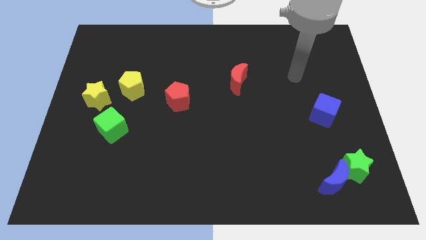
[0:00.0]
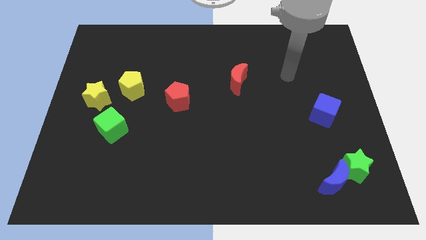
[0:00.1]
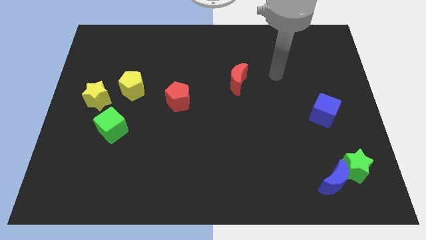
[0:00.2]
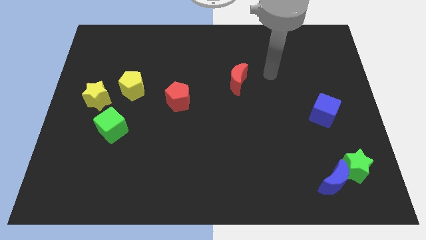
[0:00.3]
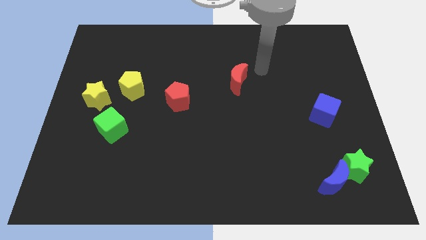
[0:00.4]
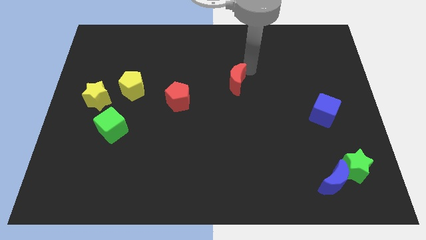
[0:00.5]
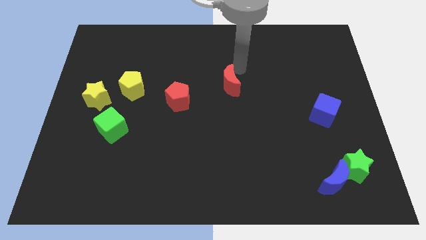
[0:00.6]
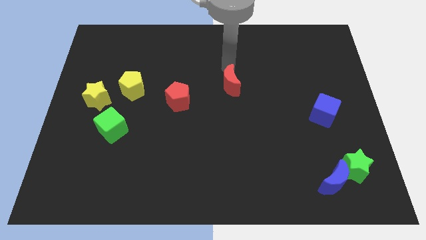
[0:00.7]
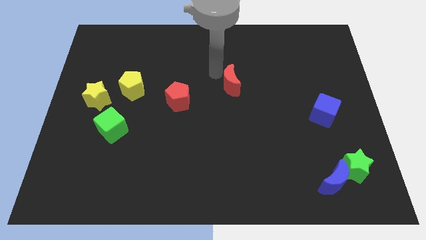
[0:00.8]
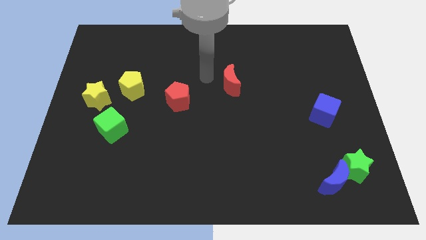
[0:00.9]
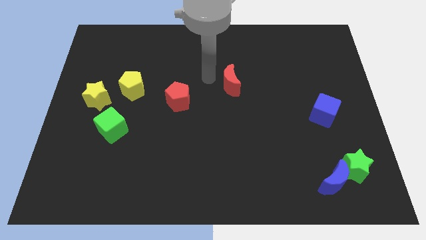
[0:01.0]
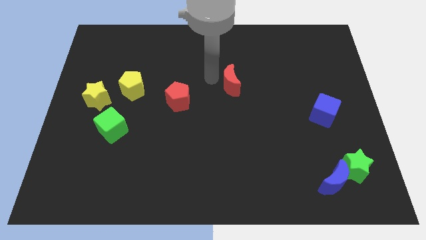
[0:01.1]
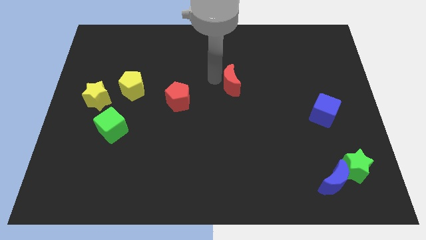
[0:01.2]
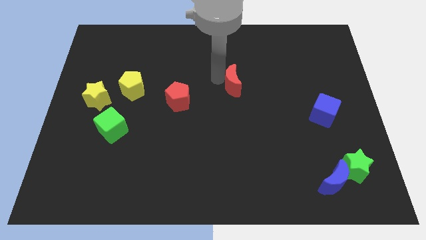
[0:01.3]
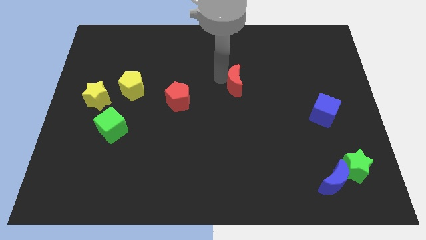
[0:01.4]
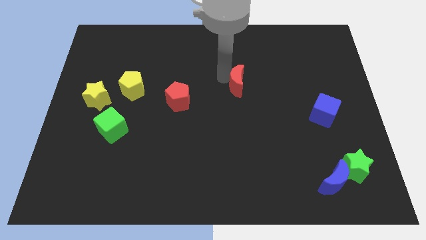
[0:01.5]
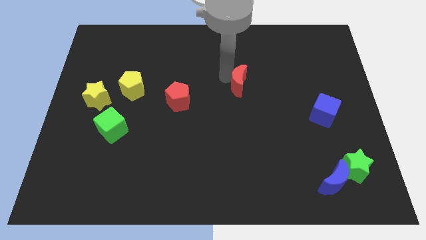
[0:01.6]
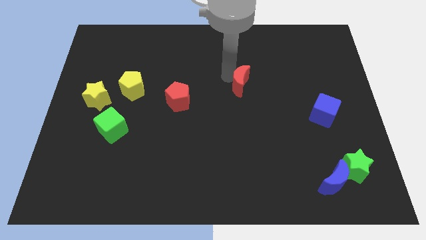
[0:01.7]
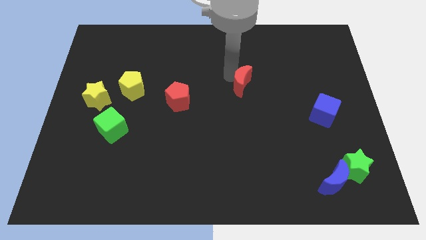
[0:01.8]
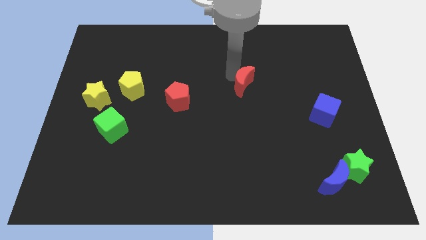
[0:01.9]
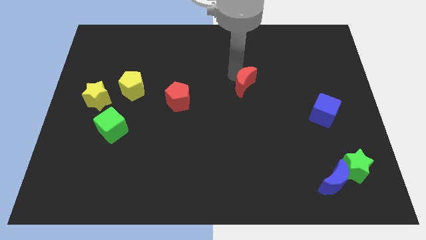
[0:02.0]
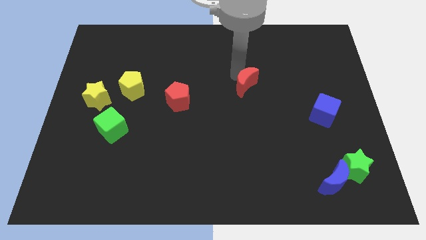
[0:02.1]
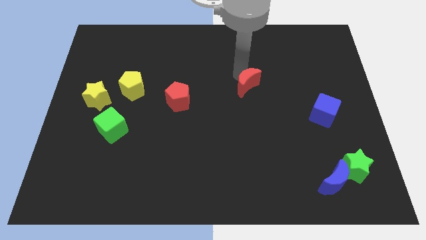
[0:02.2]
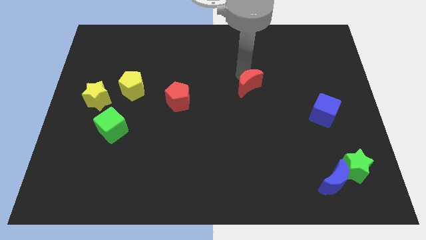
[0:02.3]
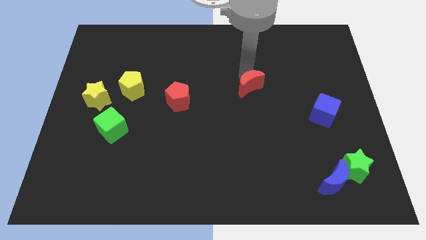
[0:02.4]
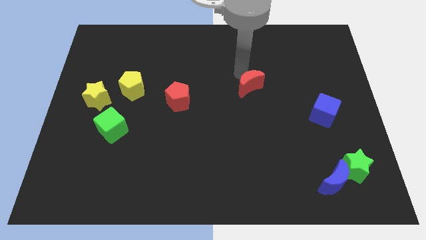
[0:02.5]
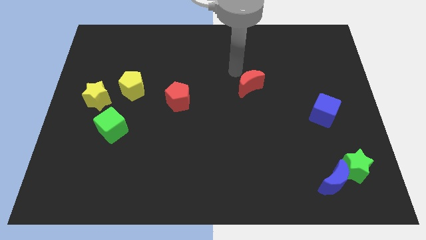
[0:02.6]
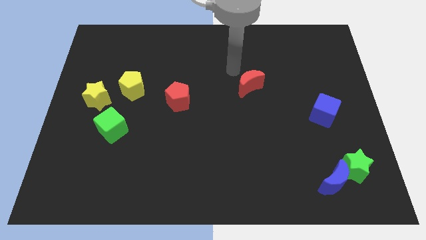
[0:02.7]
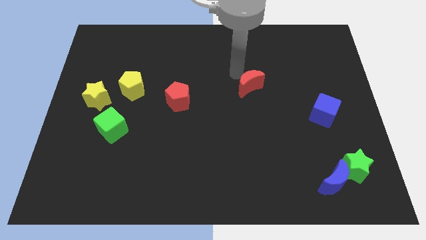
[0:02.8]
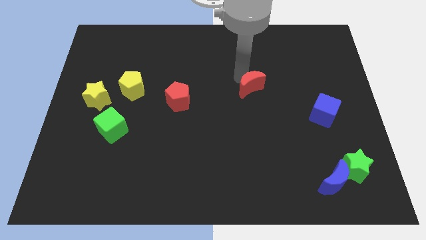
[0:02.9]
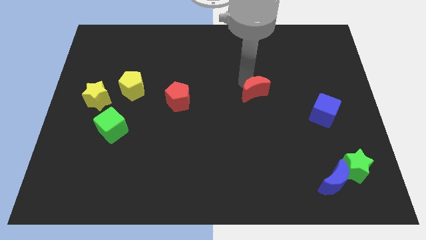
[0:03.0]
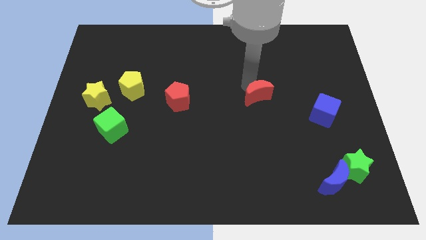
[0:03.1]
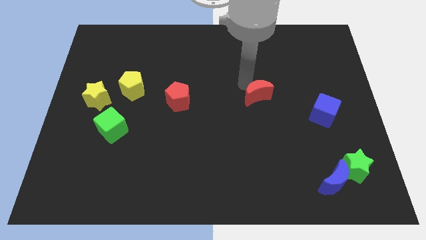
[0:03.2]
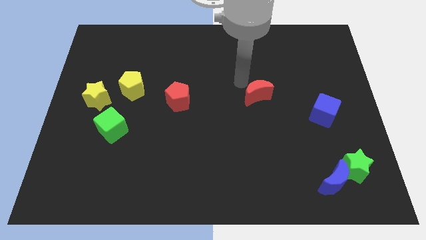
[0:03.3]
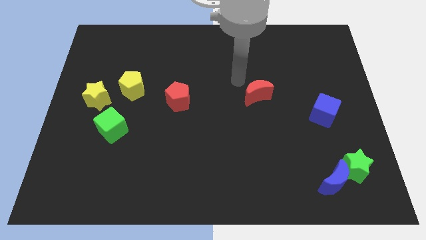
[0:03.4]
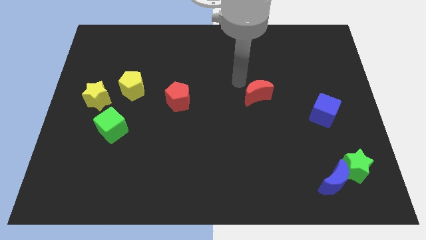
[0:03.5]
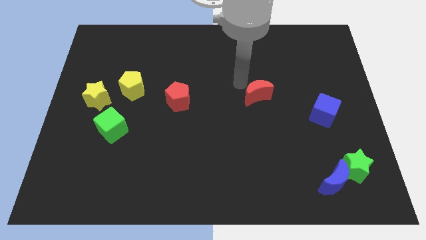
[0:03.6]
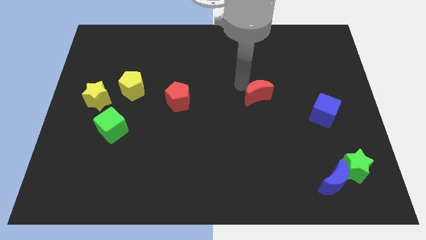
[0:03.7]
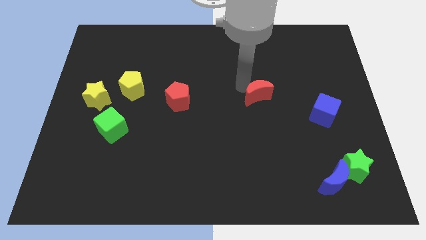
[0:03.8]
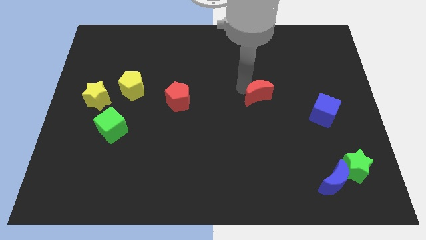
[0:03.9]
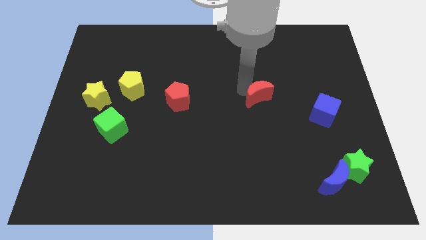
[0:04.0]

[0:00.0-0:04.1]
move the red moon diagonally down and right somewhat

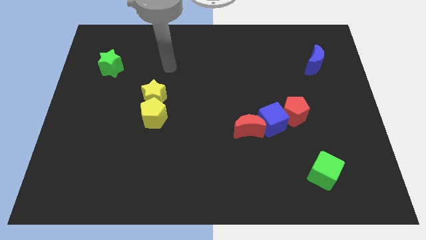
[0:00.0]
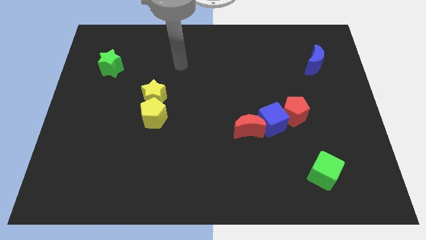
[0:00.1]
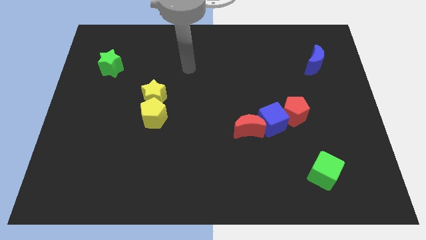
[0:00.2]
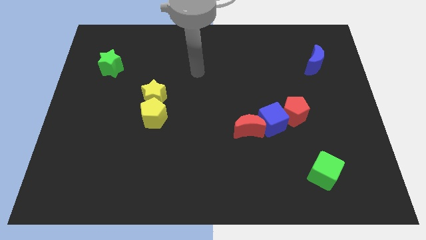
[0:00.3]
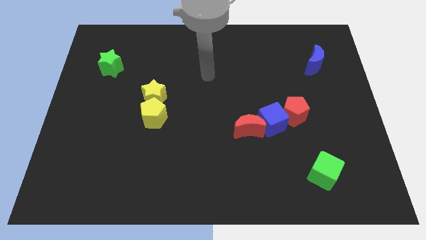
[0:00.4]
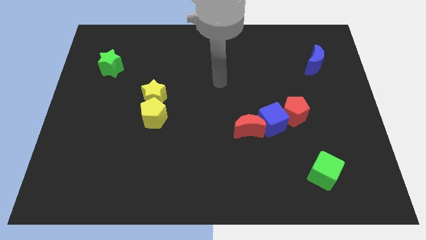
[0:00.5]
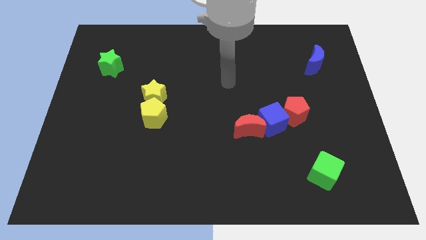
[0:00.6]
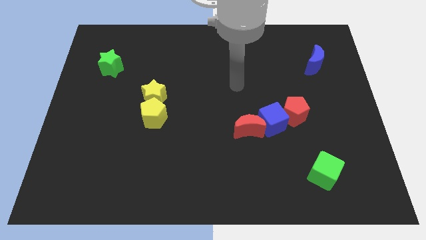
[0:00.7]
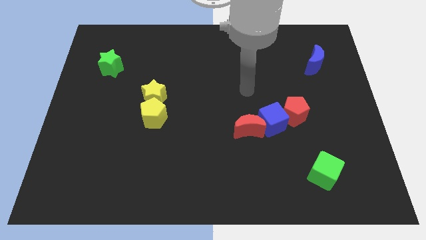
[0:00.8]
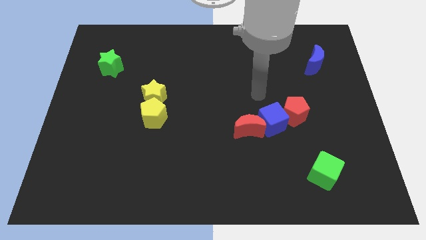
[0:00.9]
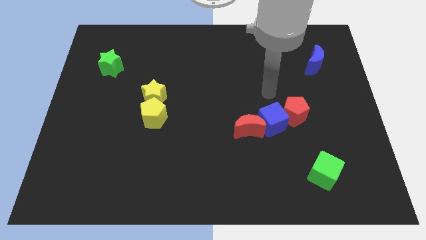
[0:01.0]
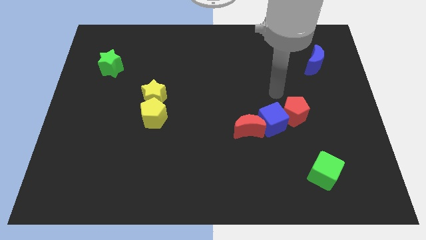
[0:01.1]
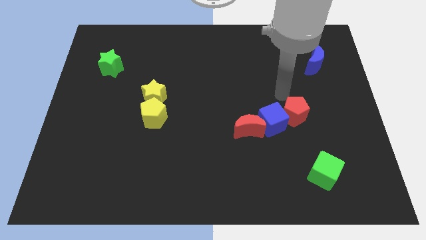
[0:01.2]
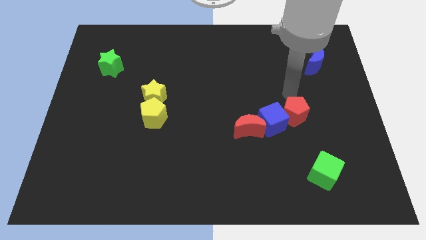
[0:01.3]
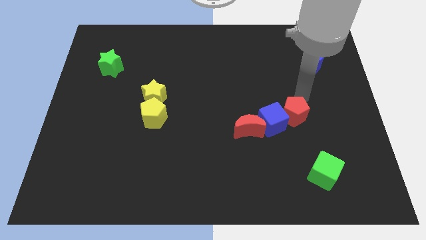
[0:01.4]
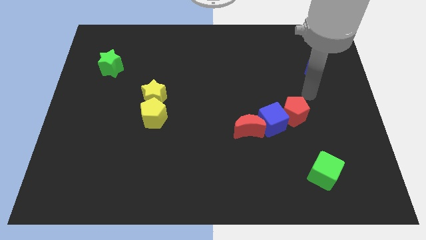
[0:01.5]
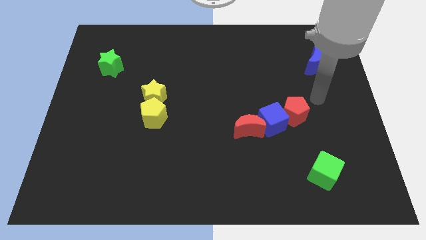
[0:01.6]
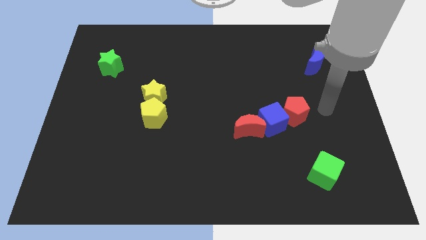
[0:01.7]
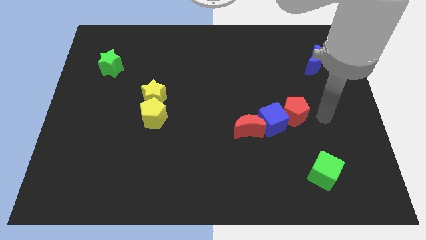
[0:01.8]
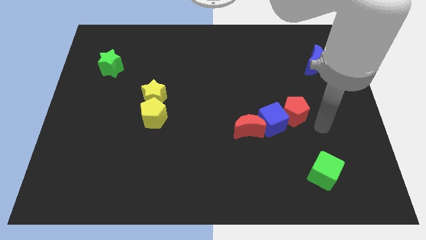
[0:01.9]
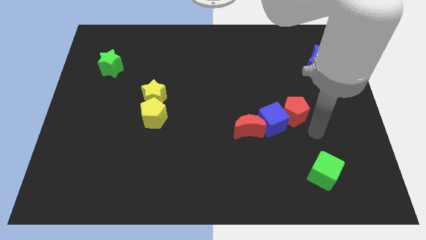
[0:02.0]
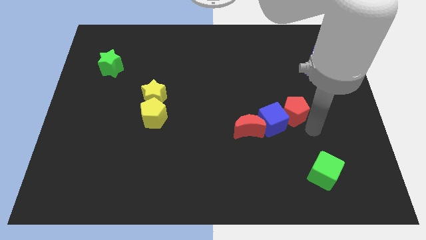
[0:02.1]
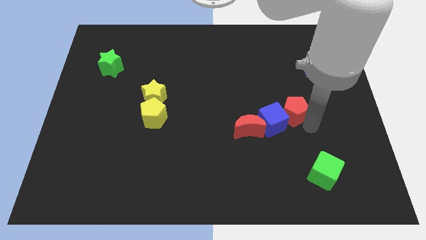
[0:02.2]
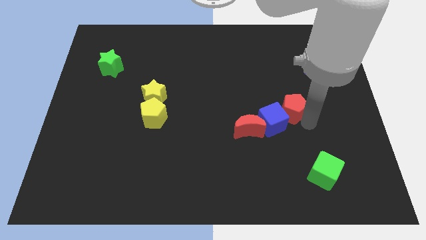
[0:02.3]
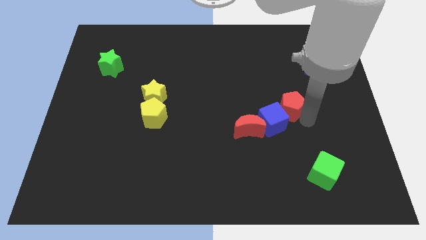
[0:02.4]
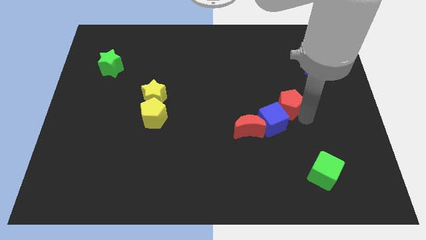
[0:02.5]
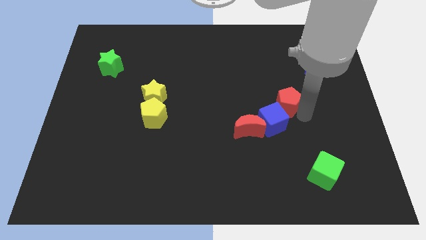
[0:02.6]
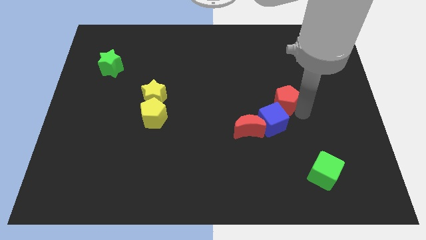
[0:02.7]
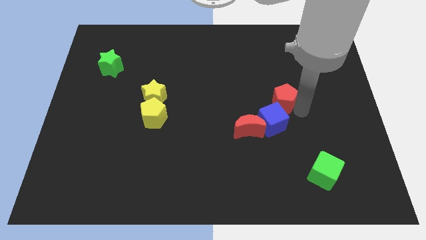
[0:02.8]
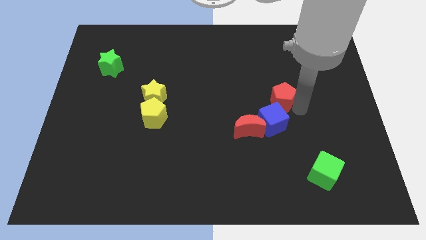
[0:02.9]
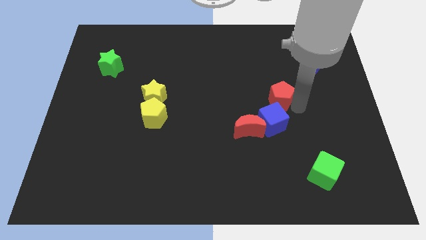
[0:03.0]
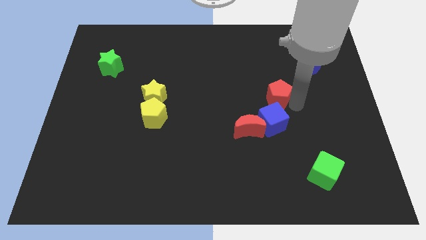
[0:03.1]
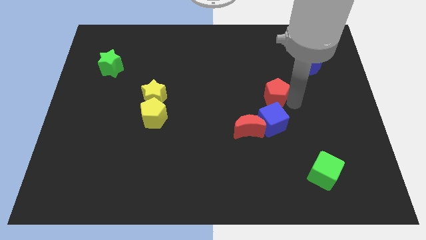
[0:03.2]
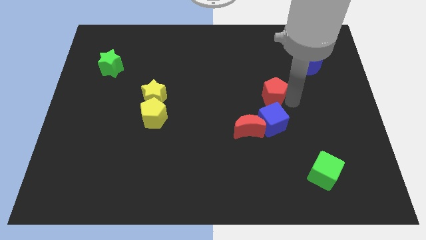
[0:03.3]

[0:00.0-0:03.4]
slightly move the red pentagon up and then to the left

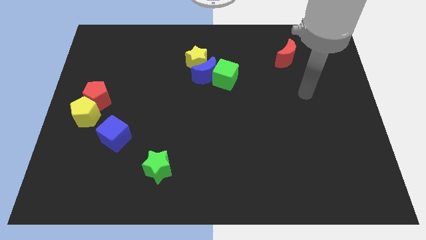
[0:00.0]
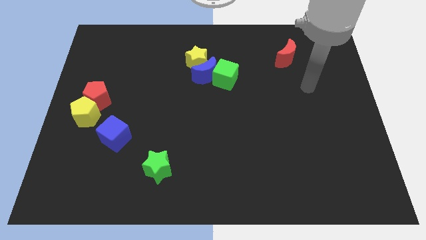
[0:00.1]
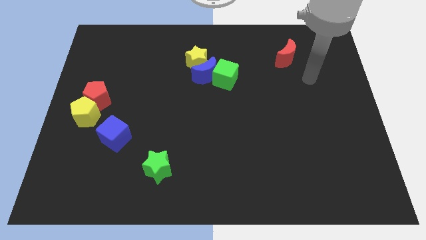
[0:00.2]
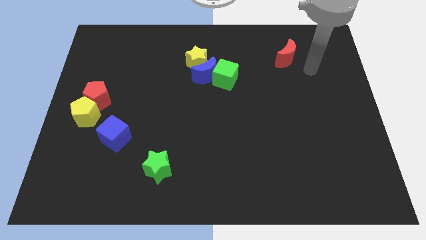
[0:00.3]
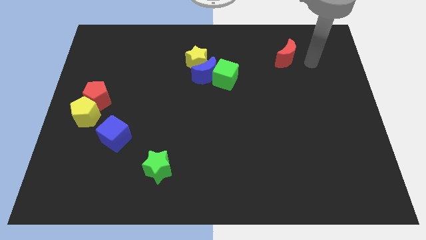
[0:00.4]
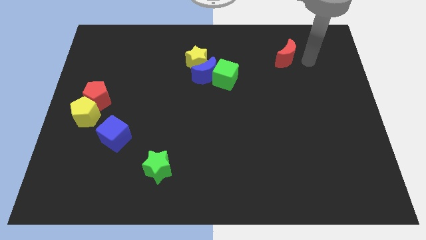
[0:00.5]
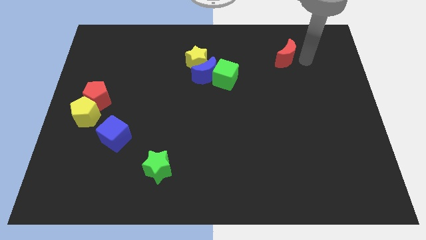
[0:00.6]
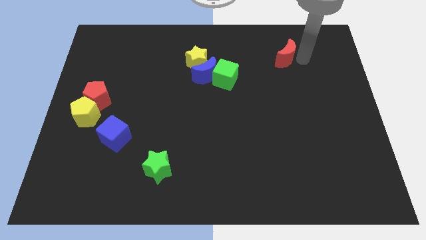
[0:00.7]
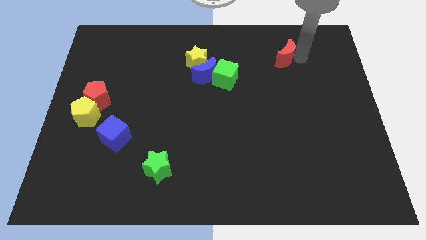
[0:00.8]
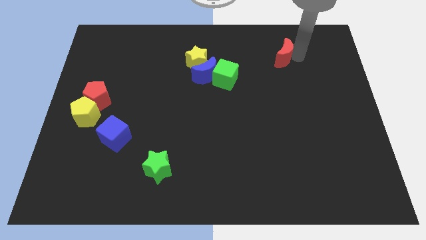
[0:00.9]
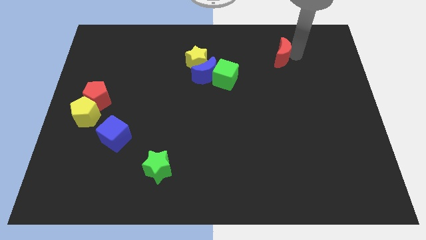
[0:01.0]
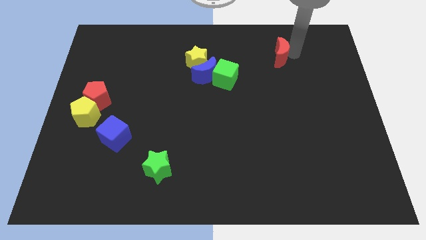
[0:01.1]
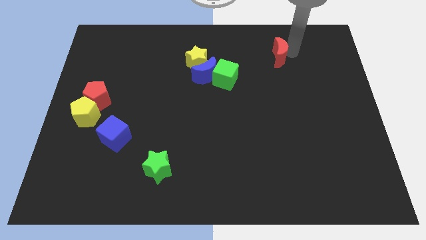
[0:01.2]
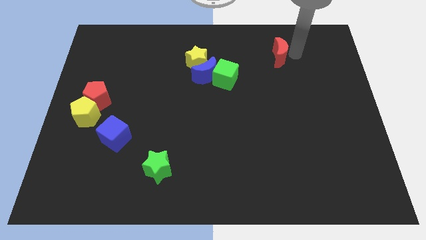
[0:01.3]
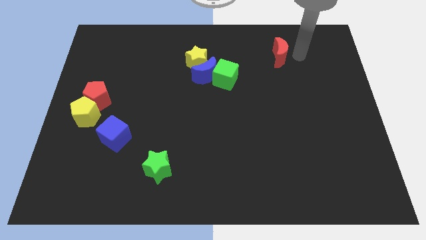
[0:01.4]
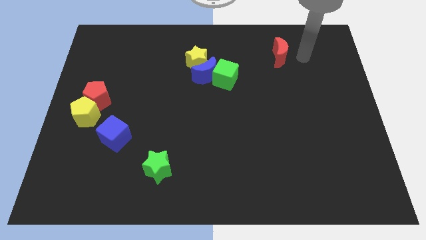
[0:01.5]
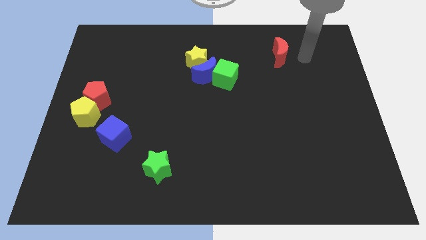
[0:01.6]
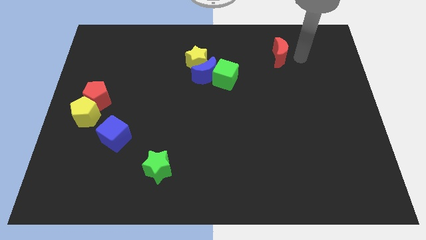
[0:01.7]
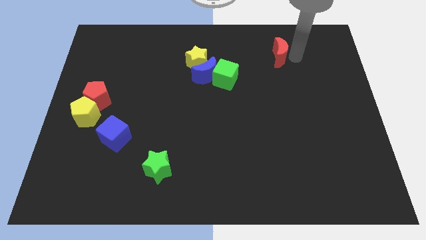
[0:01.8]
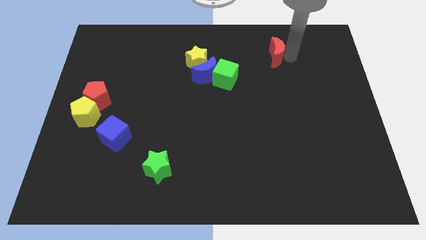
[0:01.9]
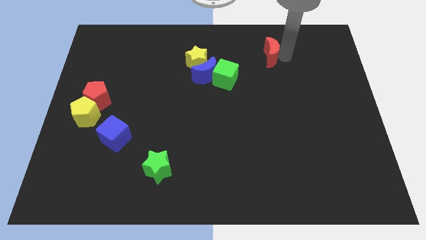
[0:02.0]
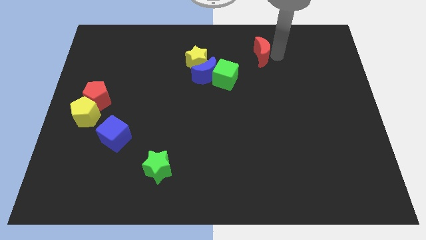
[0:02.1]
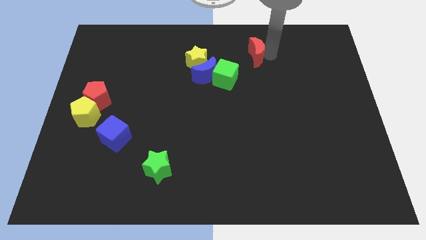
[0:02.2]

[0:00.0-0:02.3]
slightly push the red moon left
